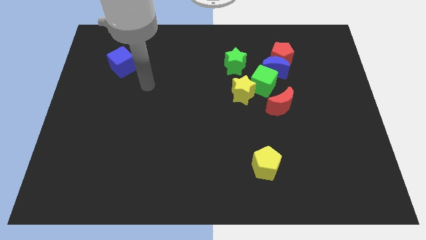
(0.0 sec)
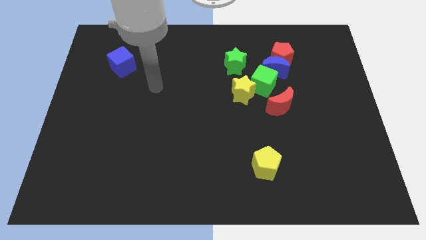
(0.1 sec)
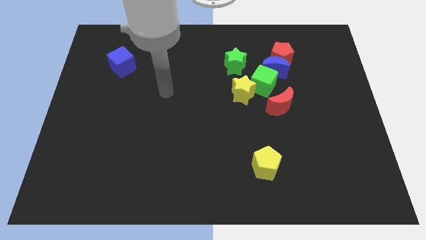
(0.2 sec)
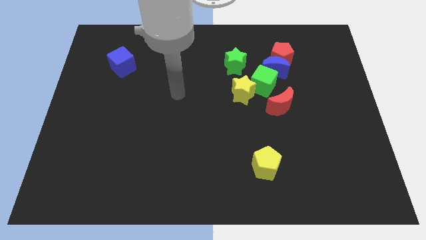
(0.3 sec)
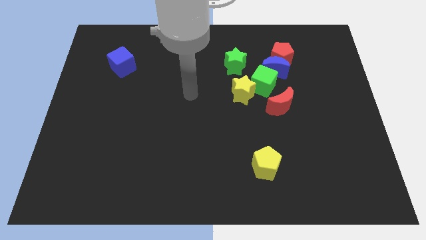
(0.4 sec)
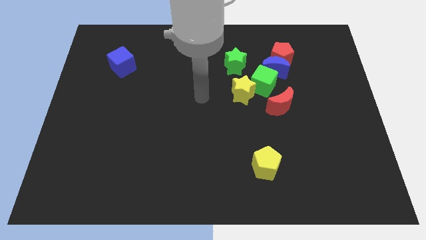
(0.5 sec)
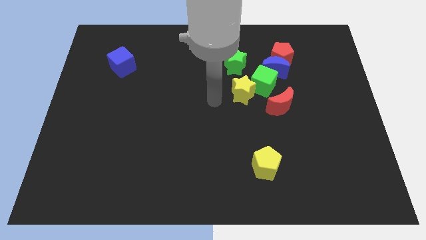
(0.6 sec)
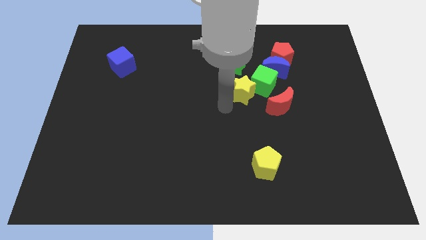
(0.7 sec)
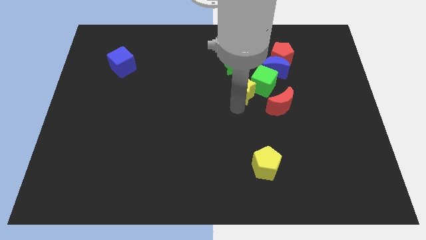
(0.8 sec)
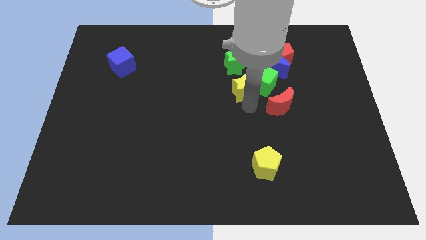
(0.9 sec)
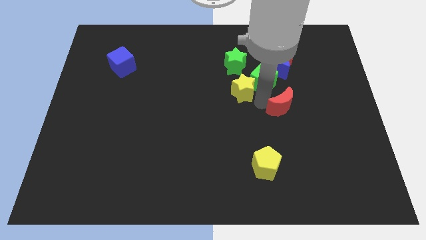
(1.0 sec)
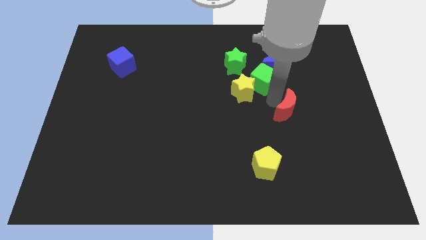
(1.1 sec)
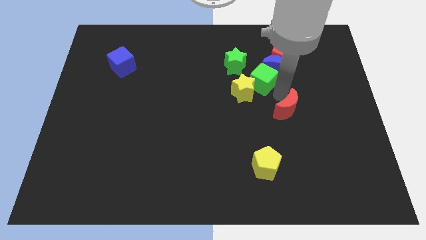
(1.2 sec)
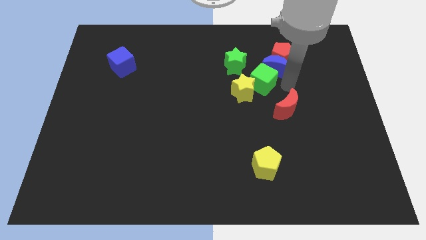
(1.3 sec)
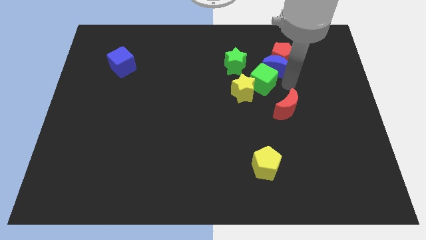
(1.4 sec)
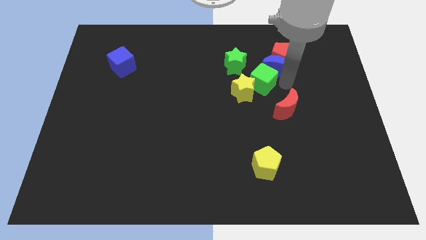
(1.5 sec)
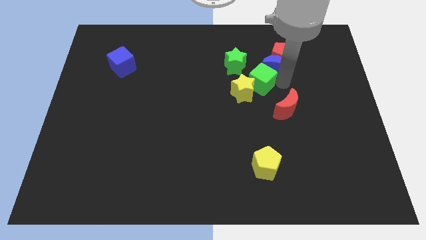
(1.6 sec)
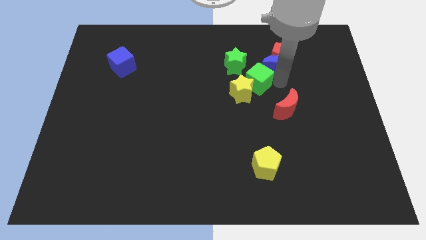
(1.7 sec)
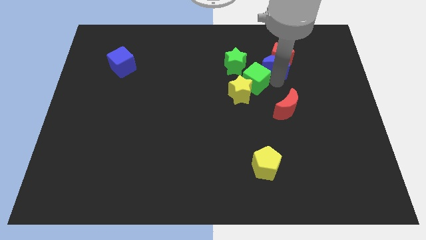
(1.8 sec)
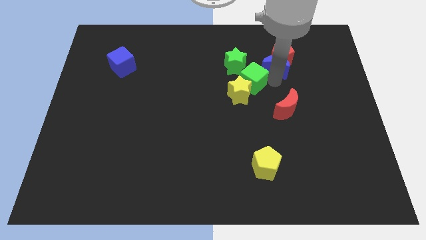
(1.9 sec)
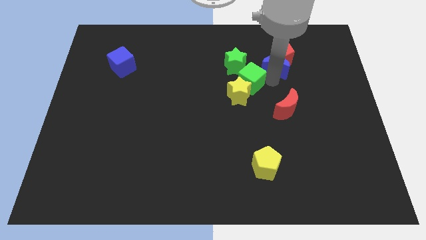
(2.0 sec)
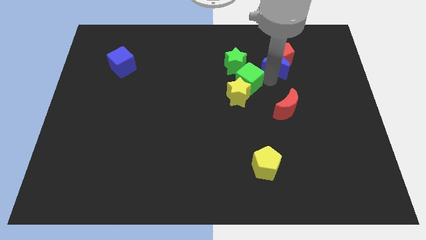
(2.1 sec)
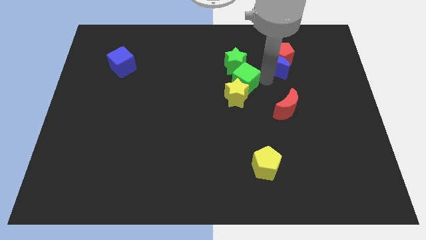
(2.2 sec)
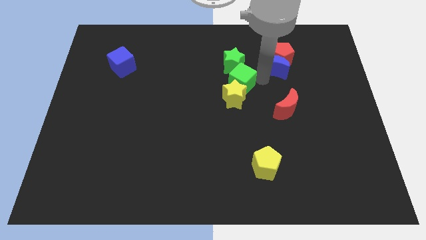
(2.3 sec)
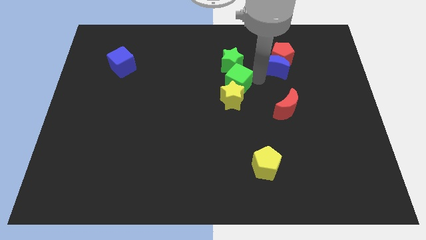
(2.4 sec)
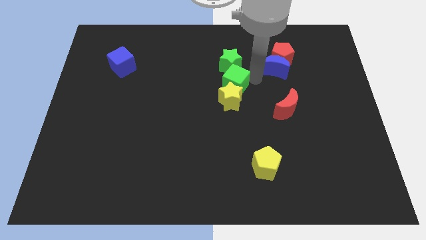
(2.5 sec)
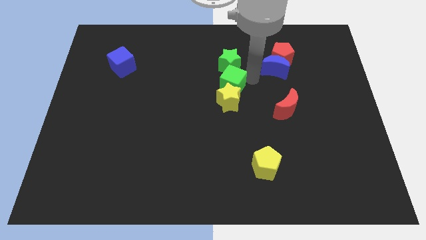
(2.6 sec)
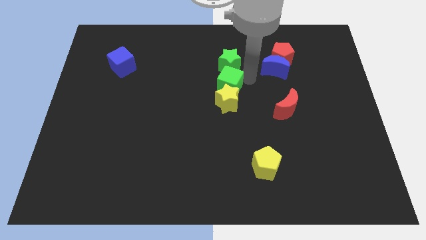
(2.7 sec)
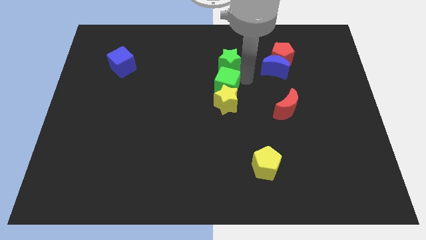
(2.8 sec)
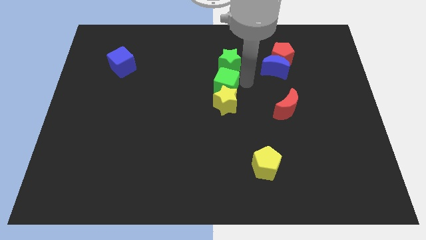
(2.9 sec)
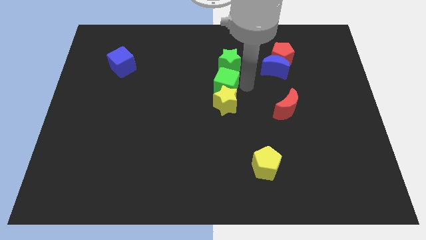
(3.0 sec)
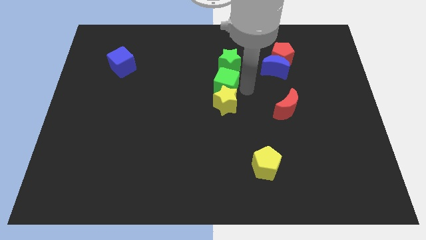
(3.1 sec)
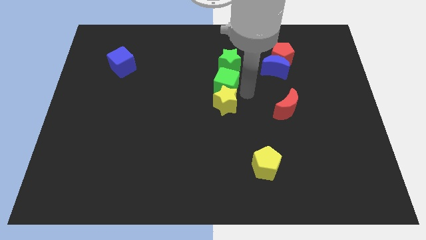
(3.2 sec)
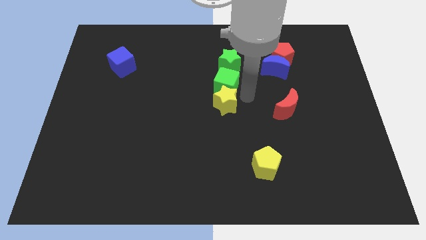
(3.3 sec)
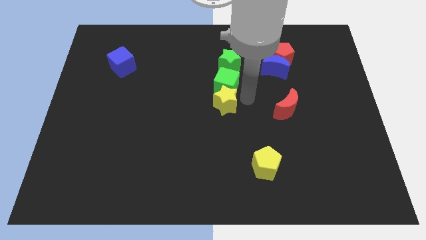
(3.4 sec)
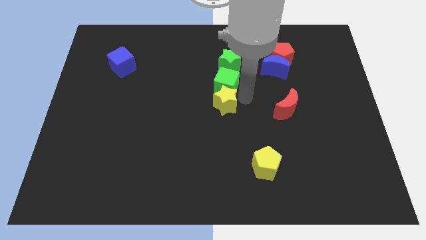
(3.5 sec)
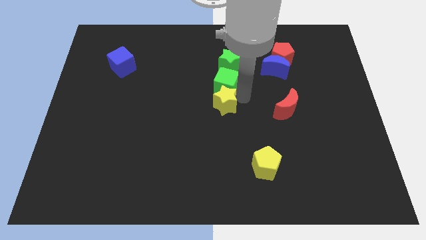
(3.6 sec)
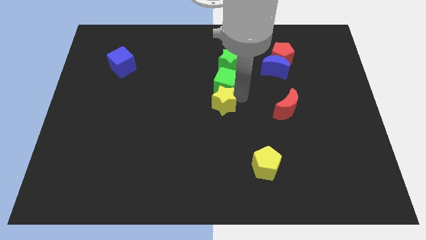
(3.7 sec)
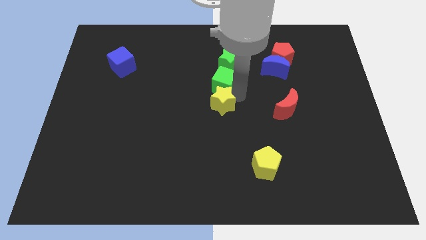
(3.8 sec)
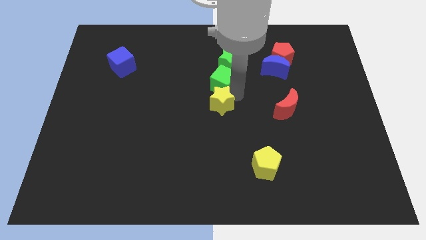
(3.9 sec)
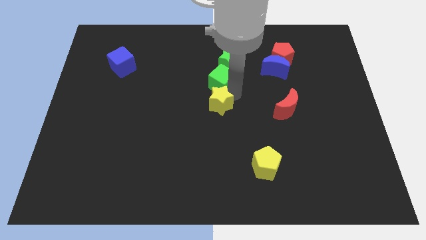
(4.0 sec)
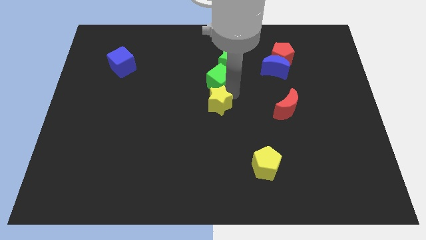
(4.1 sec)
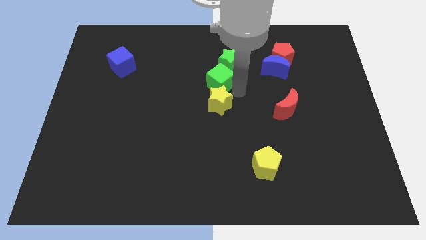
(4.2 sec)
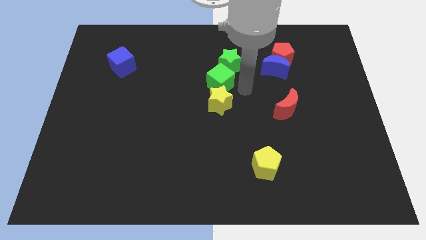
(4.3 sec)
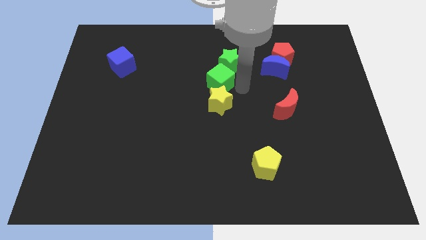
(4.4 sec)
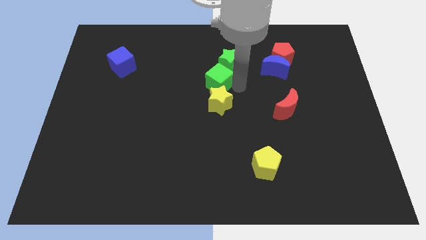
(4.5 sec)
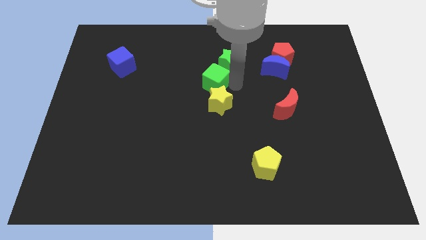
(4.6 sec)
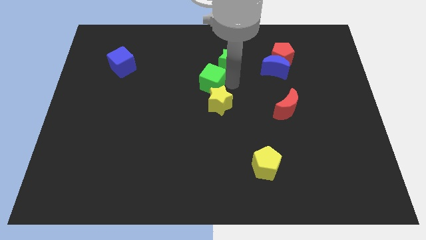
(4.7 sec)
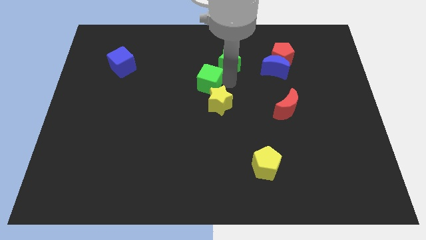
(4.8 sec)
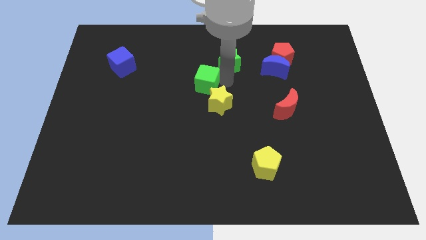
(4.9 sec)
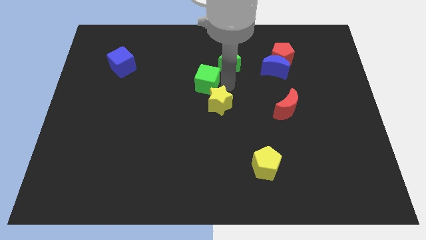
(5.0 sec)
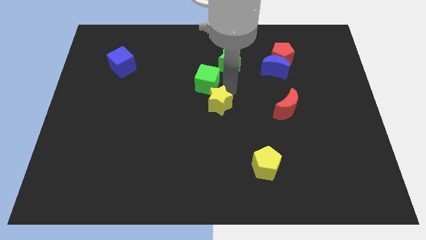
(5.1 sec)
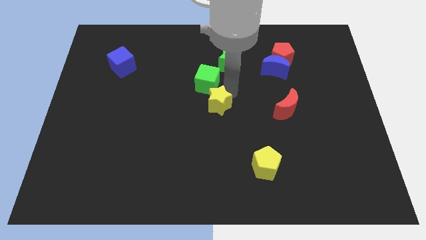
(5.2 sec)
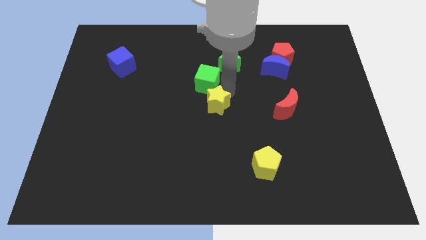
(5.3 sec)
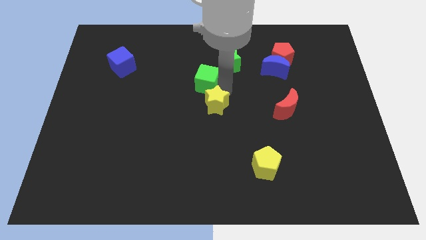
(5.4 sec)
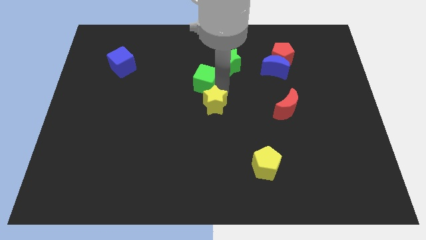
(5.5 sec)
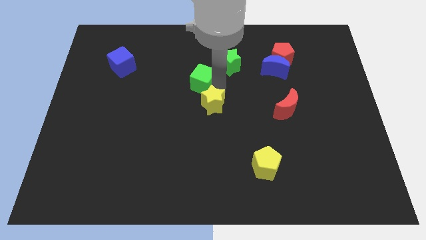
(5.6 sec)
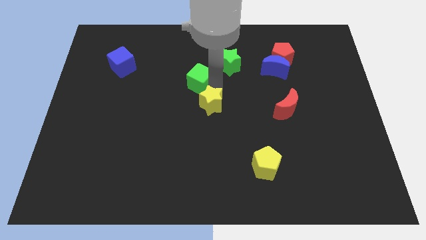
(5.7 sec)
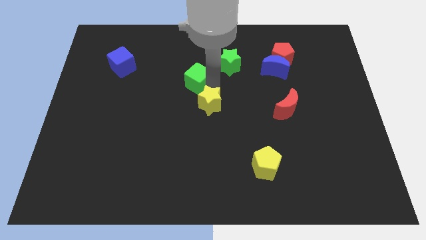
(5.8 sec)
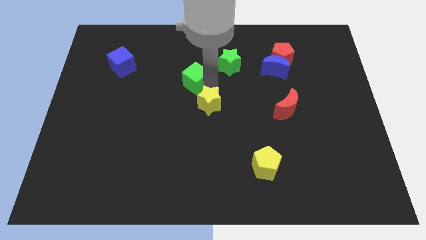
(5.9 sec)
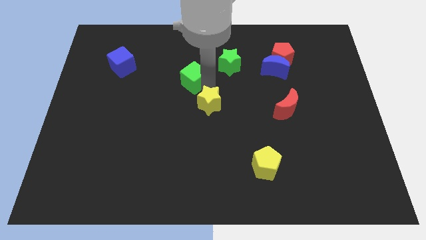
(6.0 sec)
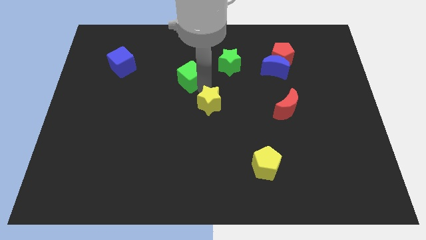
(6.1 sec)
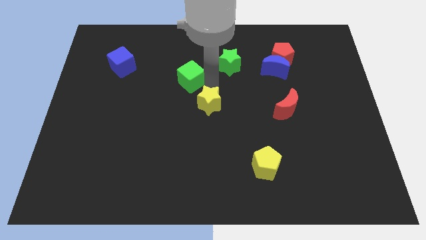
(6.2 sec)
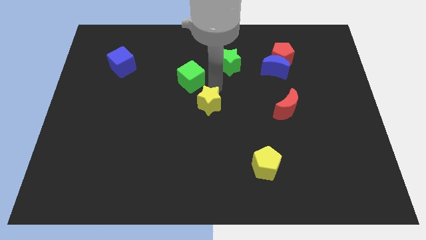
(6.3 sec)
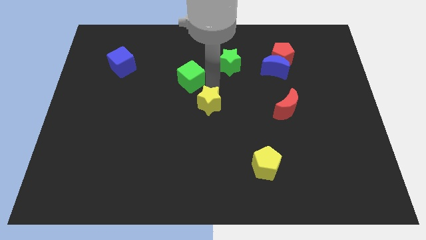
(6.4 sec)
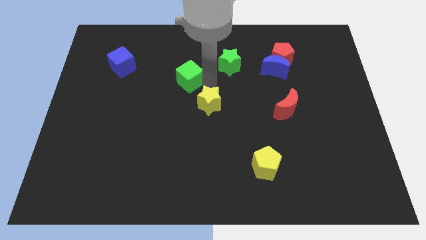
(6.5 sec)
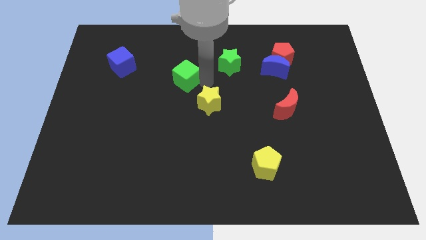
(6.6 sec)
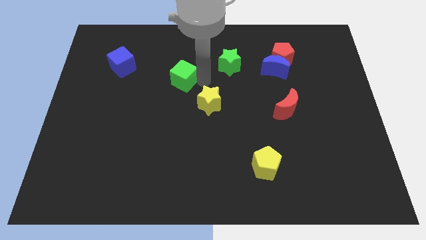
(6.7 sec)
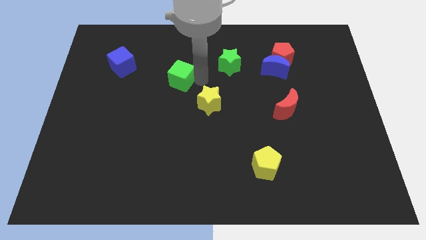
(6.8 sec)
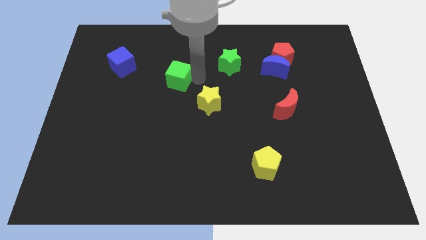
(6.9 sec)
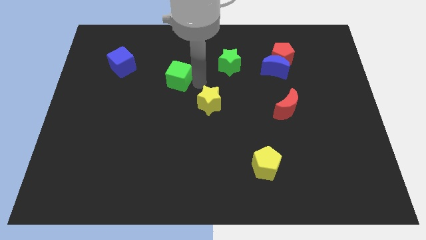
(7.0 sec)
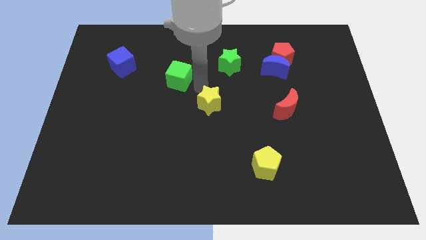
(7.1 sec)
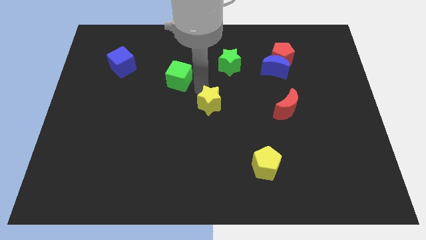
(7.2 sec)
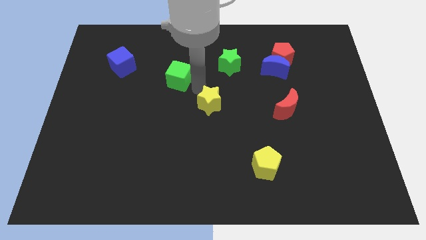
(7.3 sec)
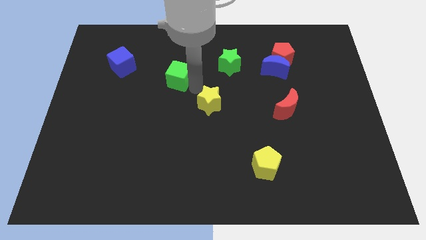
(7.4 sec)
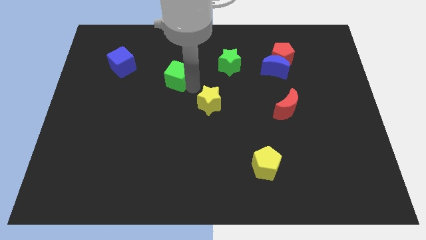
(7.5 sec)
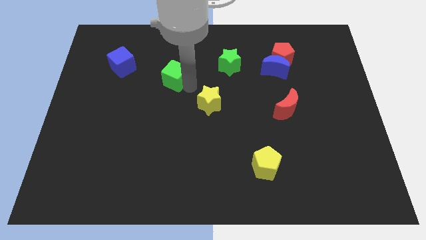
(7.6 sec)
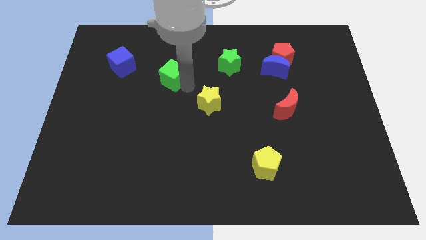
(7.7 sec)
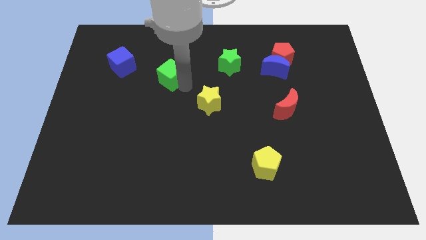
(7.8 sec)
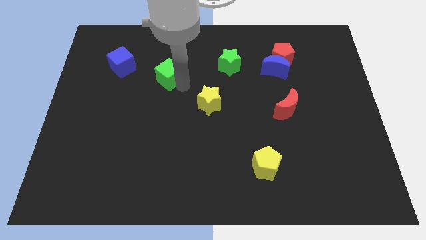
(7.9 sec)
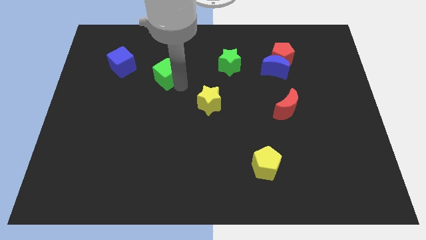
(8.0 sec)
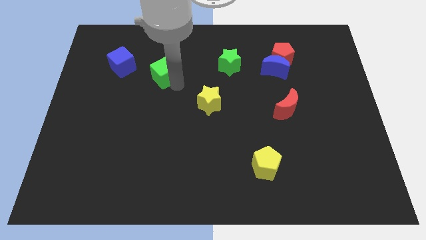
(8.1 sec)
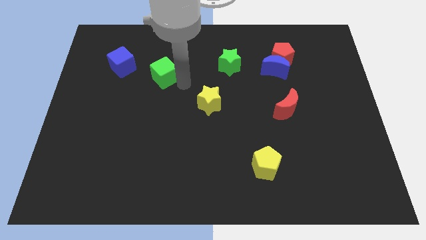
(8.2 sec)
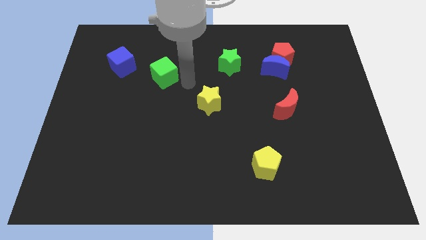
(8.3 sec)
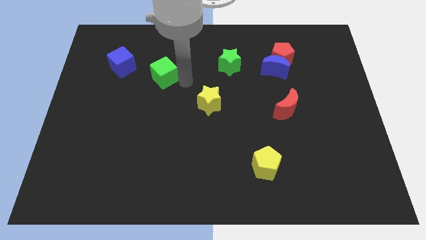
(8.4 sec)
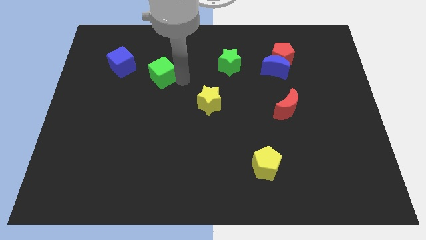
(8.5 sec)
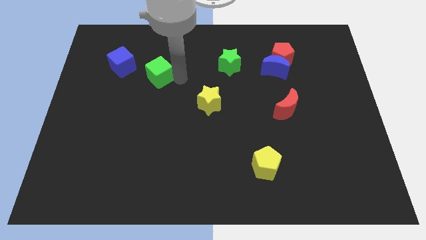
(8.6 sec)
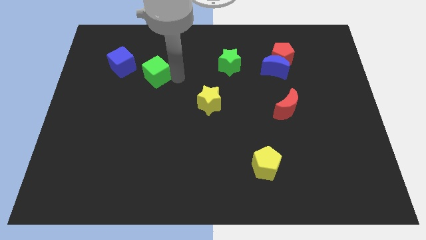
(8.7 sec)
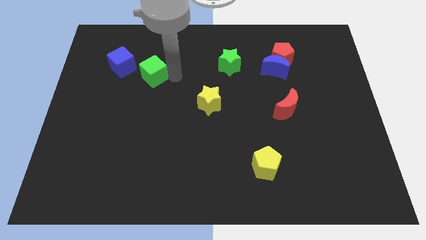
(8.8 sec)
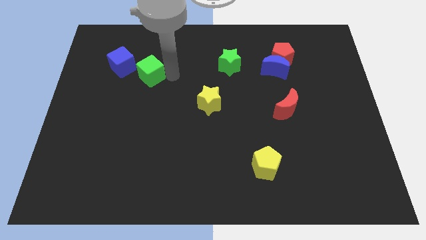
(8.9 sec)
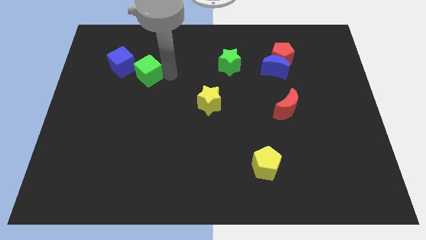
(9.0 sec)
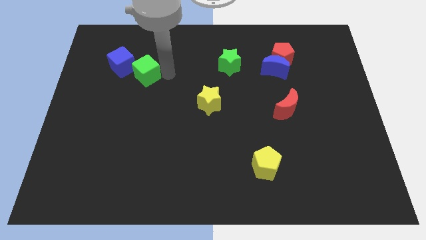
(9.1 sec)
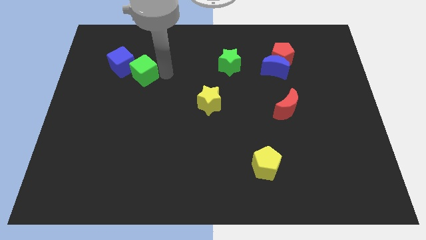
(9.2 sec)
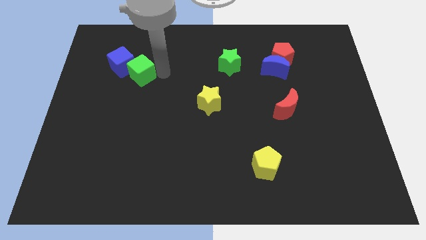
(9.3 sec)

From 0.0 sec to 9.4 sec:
push the green cube next to the blue cube
